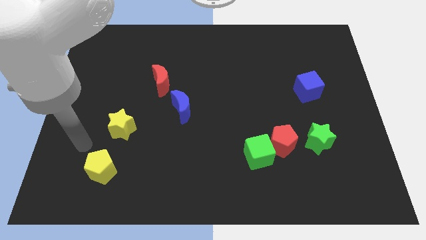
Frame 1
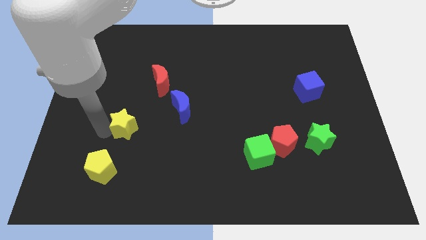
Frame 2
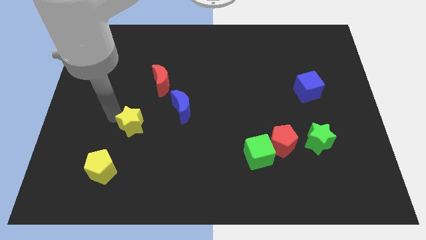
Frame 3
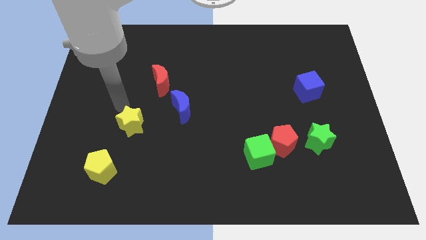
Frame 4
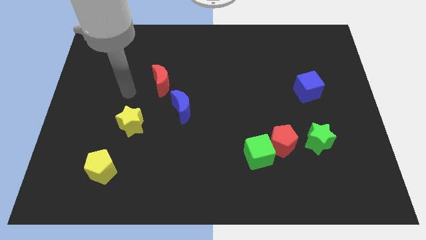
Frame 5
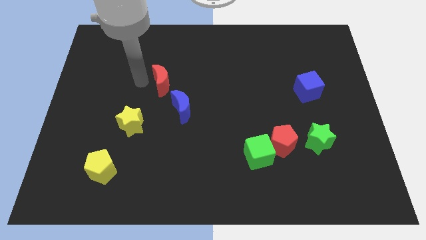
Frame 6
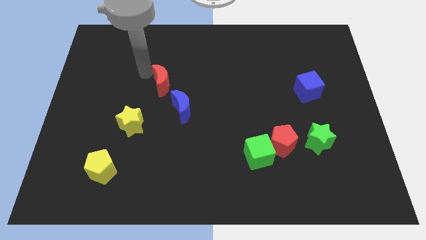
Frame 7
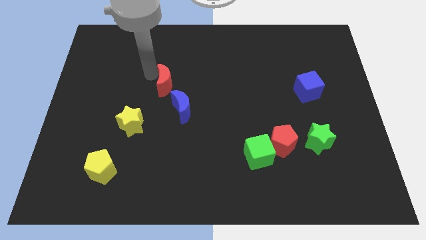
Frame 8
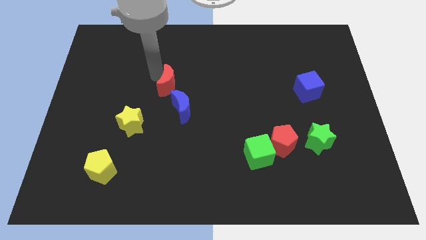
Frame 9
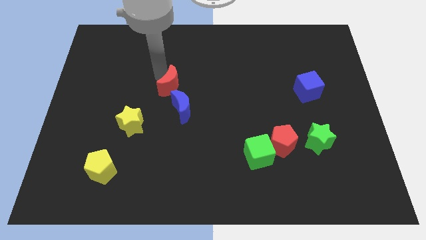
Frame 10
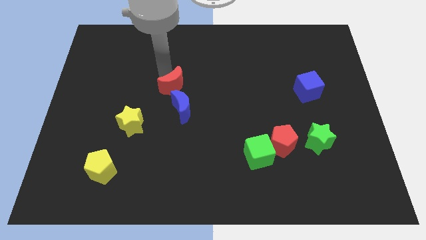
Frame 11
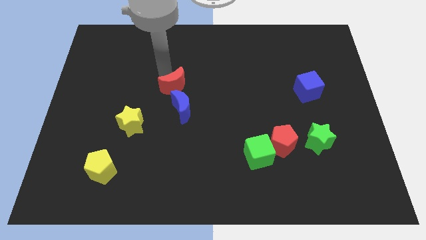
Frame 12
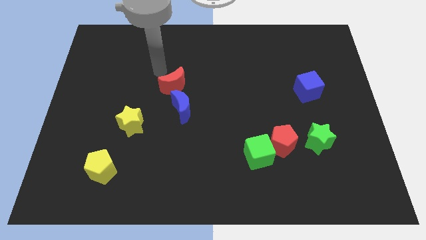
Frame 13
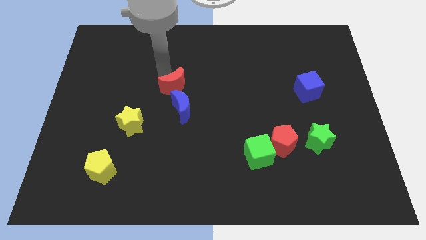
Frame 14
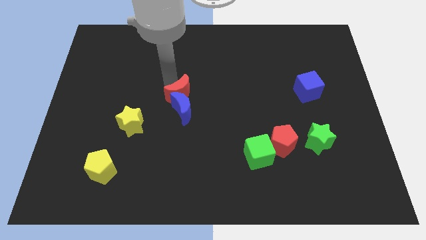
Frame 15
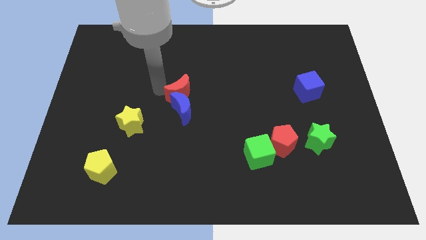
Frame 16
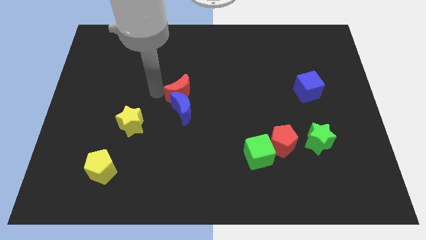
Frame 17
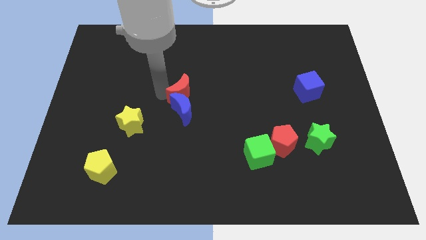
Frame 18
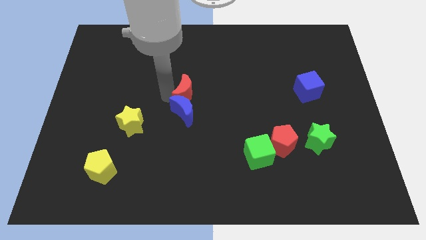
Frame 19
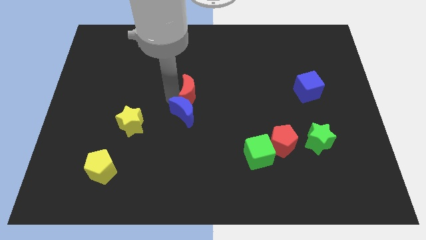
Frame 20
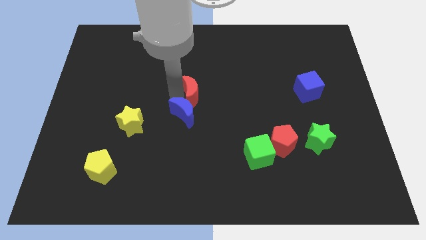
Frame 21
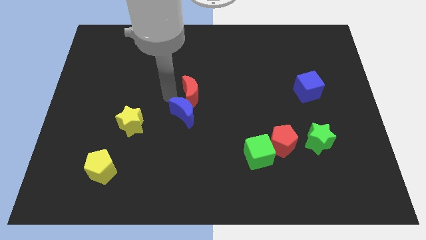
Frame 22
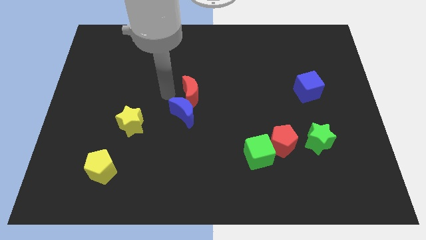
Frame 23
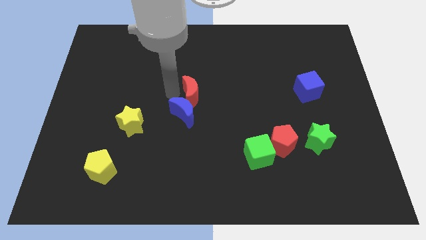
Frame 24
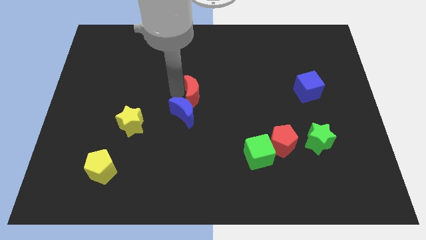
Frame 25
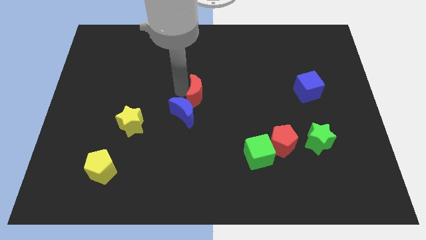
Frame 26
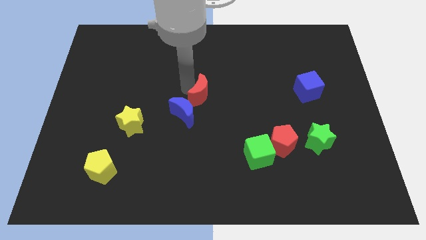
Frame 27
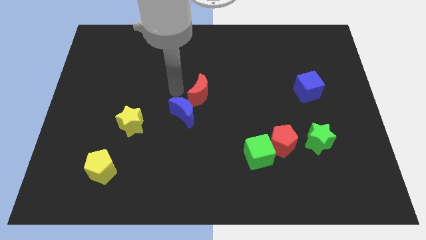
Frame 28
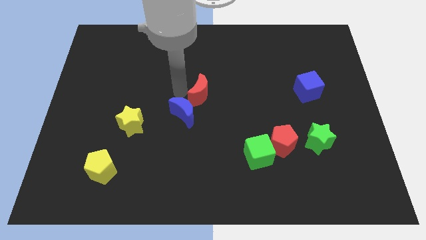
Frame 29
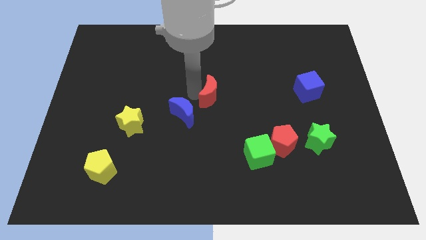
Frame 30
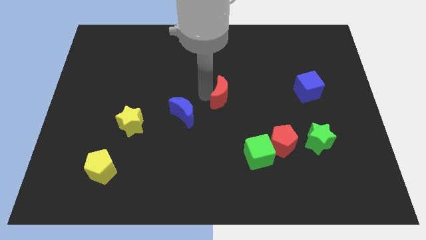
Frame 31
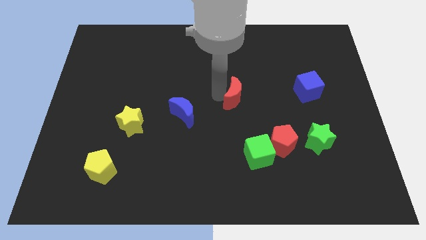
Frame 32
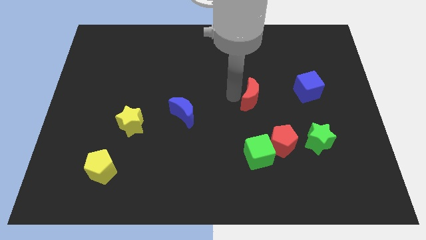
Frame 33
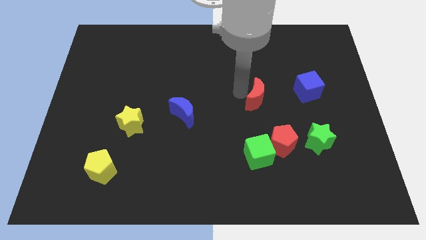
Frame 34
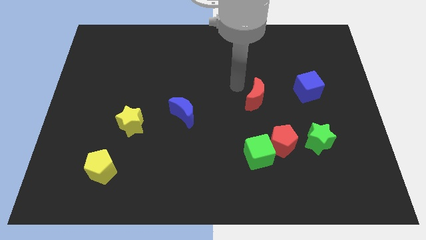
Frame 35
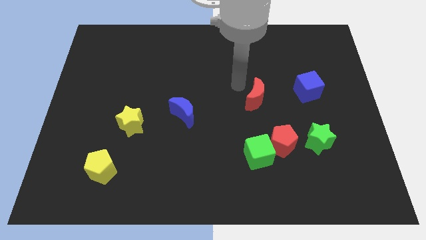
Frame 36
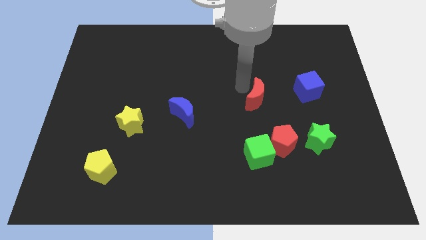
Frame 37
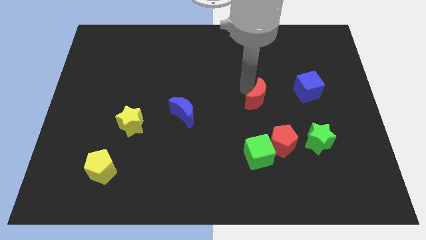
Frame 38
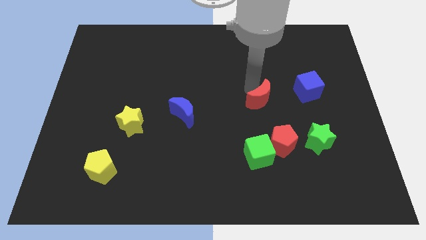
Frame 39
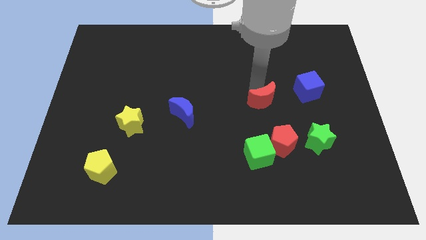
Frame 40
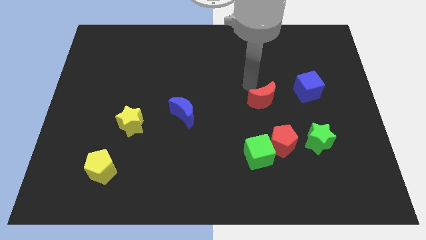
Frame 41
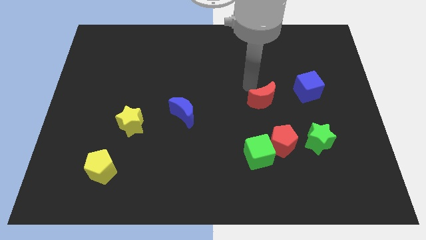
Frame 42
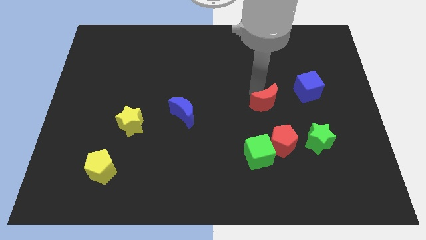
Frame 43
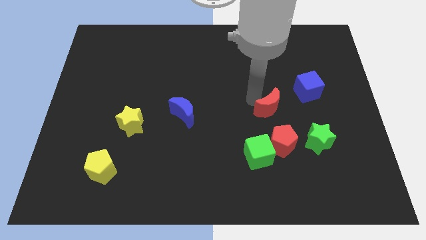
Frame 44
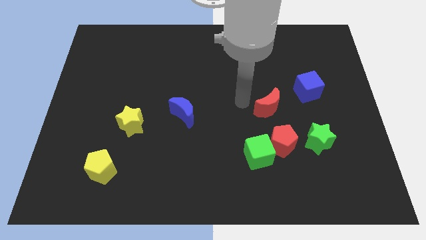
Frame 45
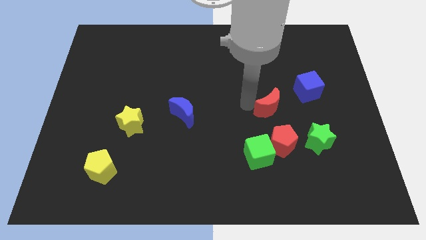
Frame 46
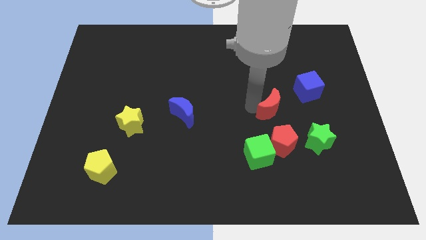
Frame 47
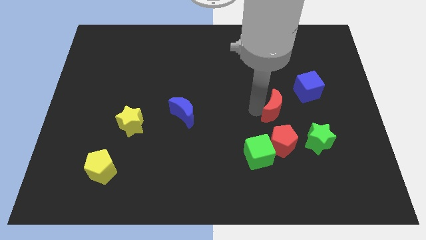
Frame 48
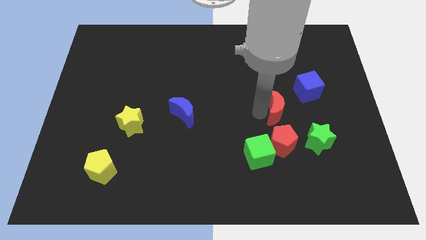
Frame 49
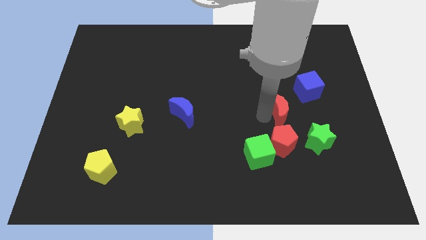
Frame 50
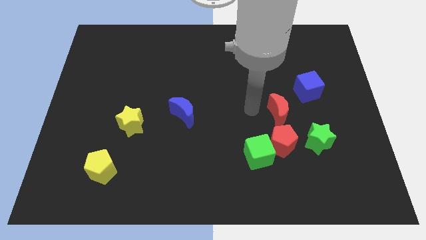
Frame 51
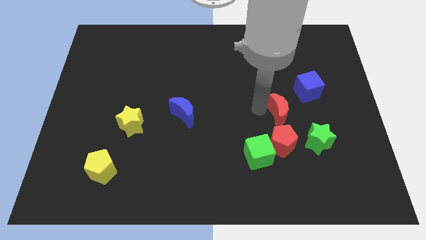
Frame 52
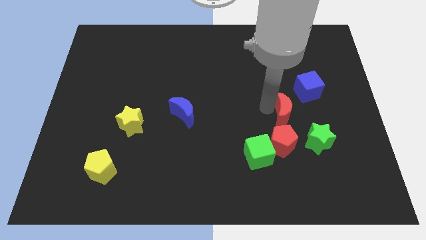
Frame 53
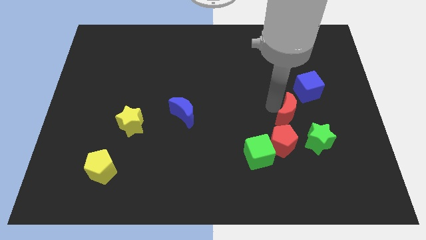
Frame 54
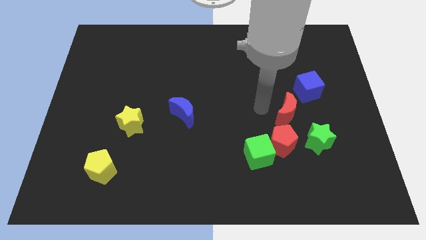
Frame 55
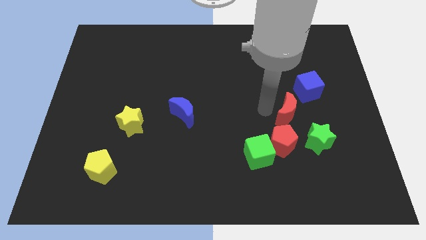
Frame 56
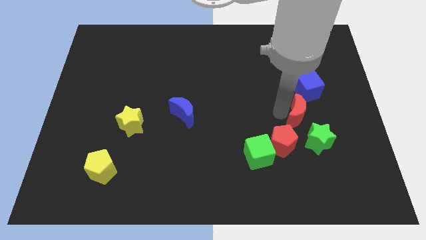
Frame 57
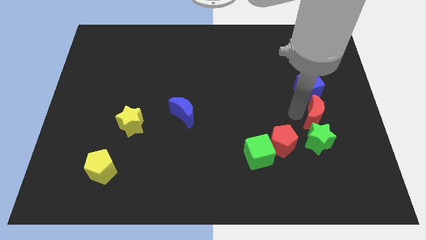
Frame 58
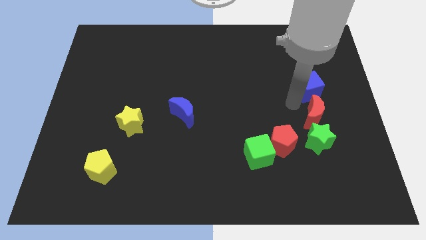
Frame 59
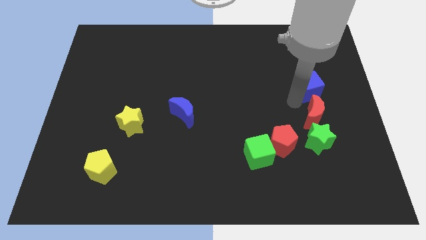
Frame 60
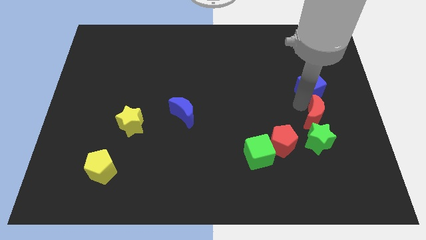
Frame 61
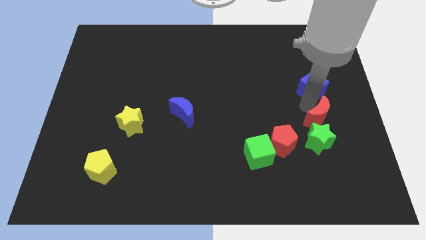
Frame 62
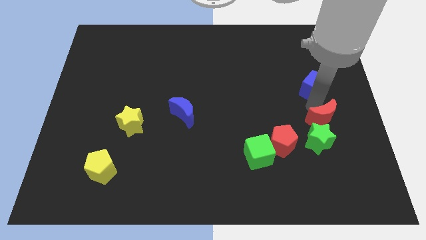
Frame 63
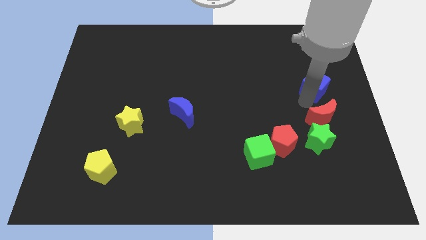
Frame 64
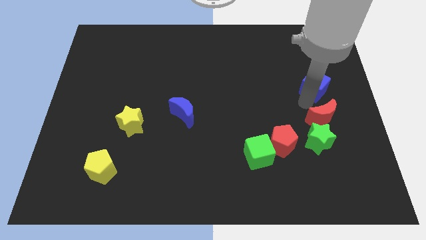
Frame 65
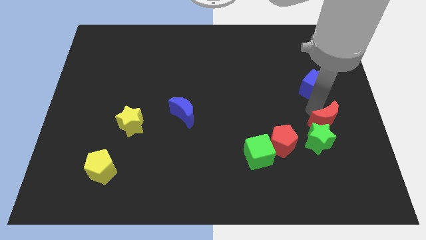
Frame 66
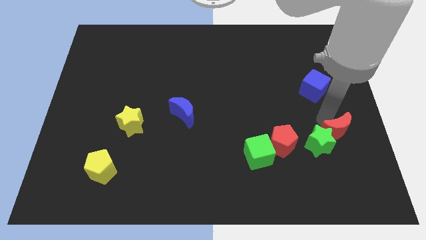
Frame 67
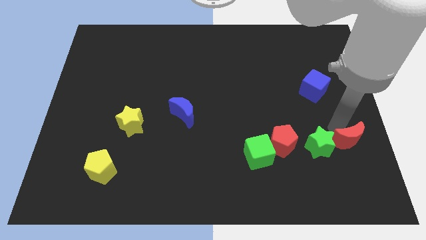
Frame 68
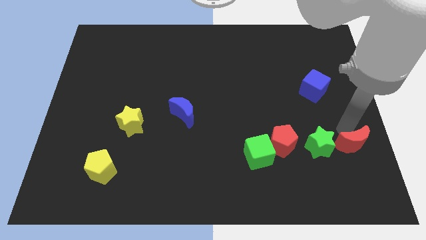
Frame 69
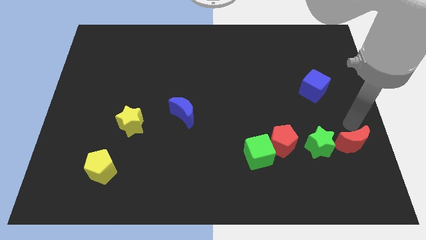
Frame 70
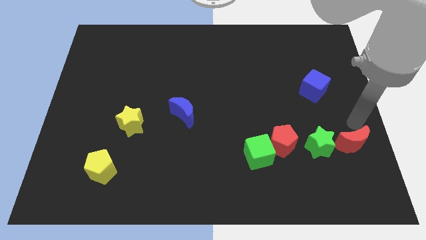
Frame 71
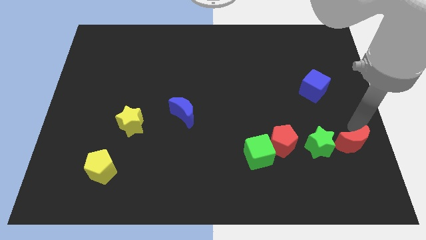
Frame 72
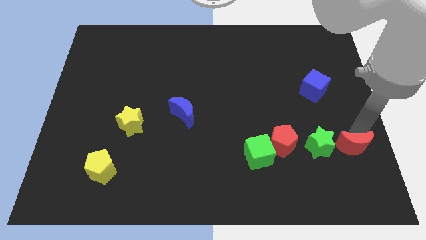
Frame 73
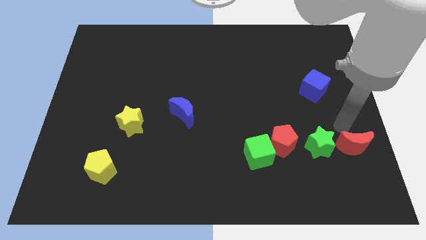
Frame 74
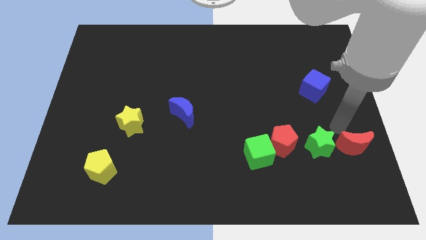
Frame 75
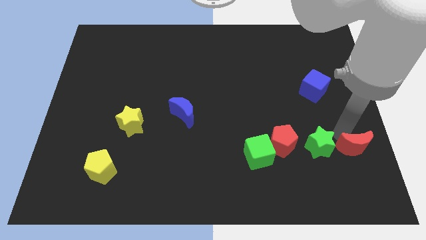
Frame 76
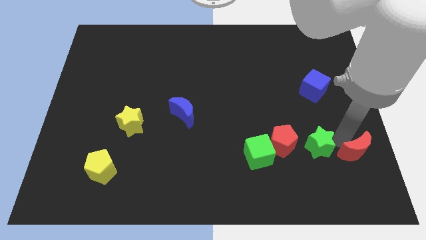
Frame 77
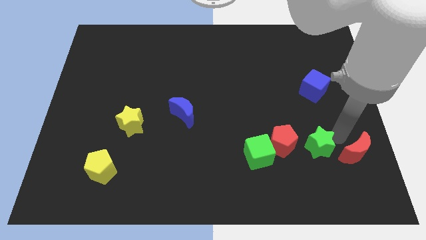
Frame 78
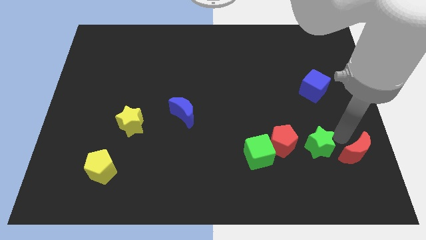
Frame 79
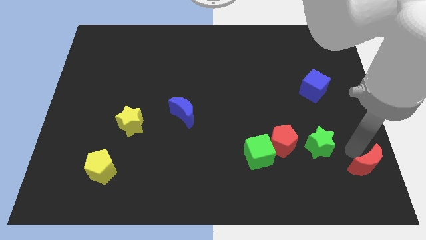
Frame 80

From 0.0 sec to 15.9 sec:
put the red moon to the bottom right of the board
